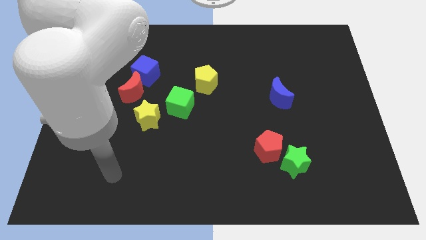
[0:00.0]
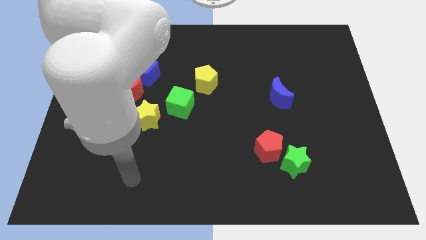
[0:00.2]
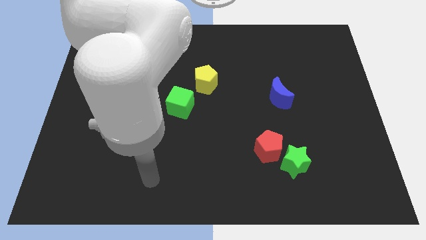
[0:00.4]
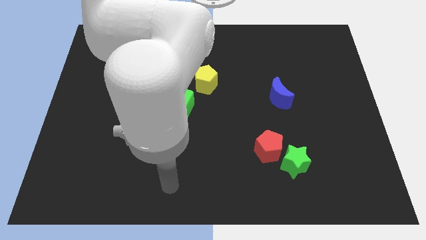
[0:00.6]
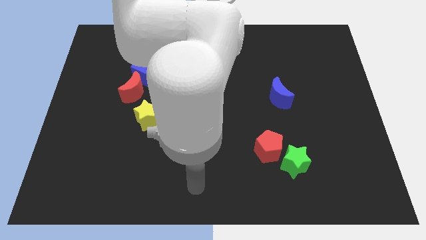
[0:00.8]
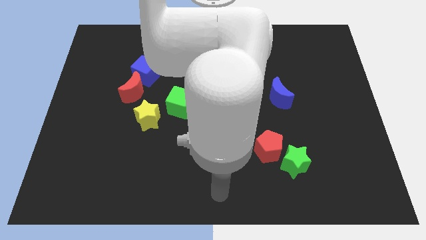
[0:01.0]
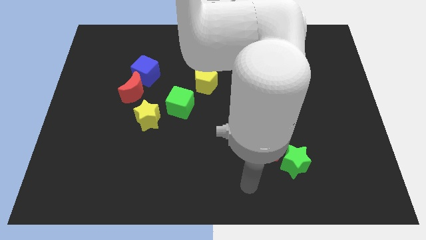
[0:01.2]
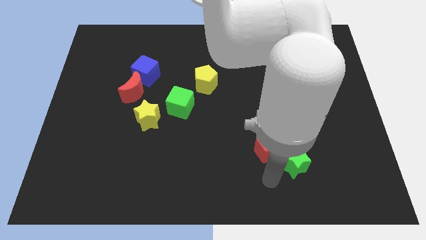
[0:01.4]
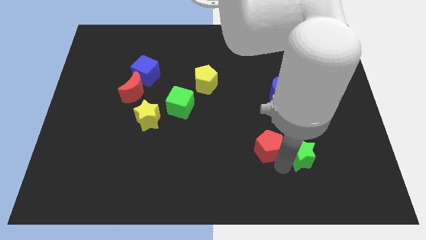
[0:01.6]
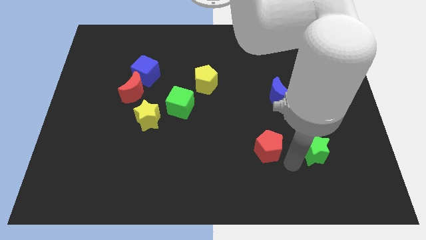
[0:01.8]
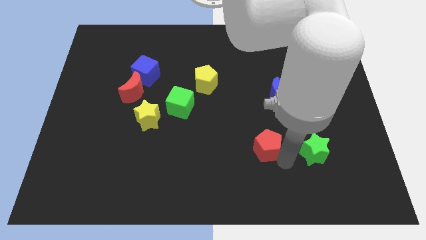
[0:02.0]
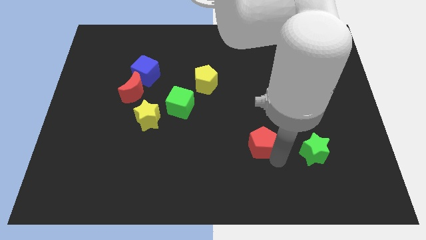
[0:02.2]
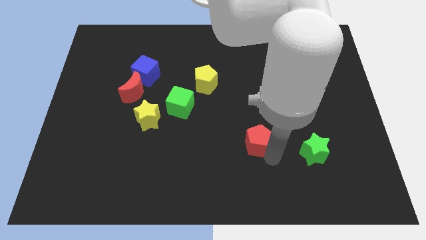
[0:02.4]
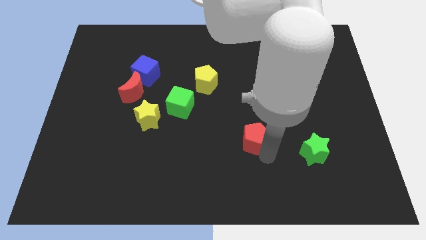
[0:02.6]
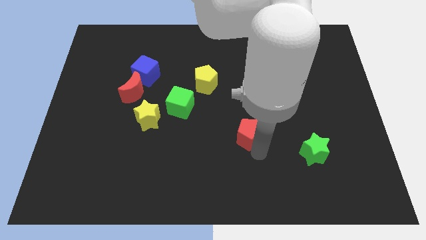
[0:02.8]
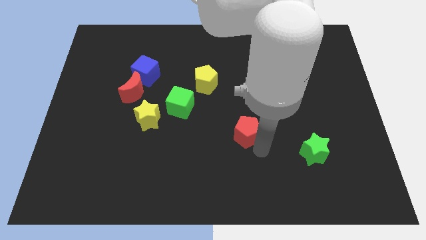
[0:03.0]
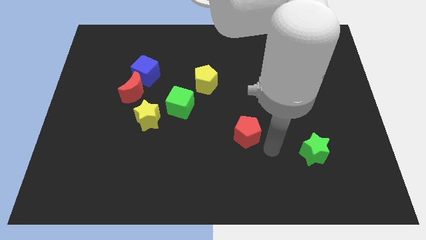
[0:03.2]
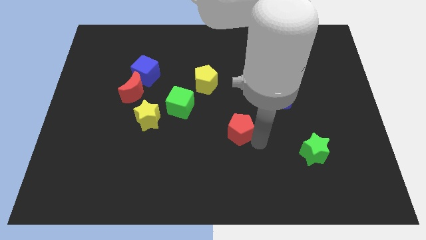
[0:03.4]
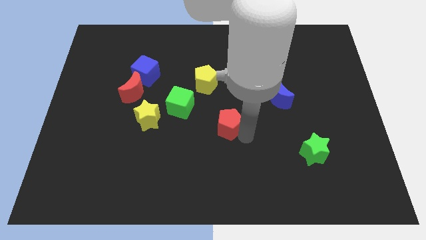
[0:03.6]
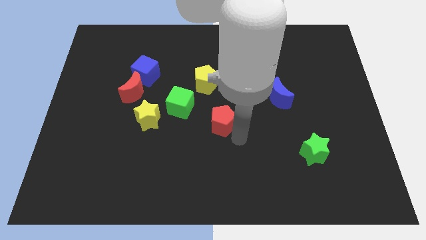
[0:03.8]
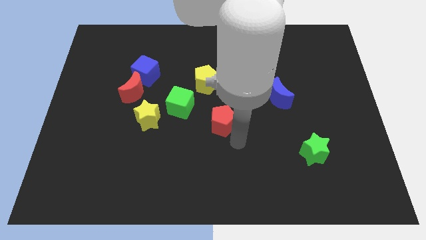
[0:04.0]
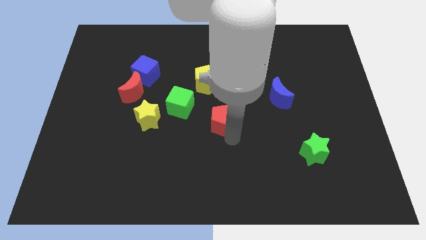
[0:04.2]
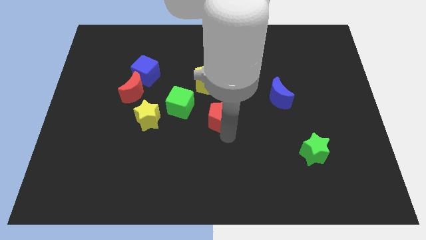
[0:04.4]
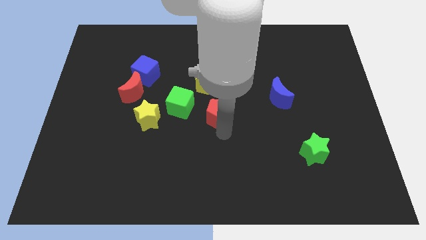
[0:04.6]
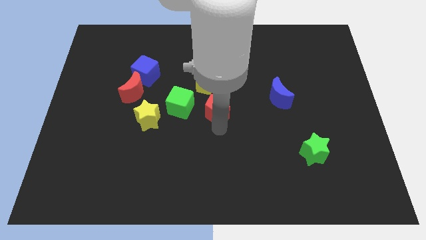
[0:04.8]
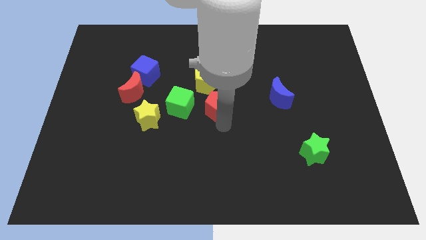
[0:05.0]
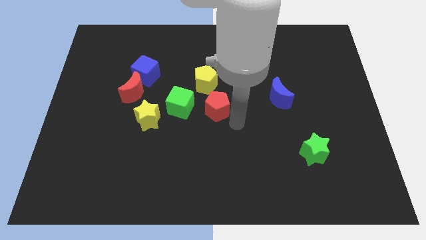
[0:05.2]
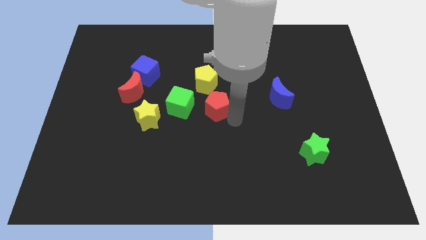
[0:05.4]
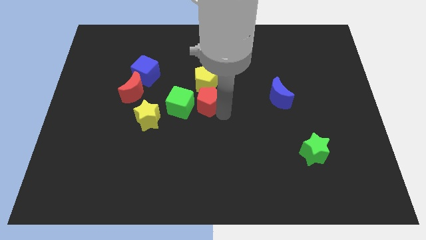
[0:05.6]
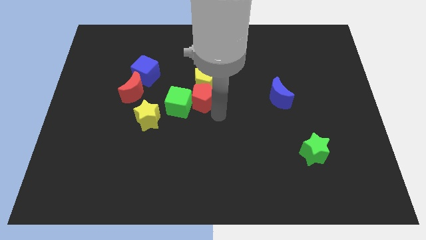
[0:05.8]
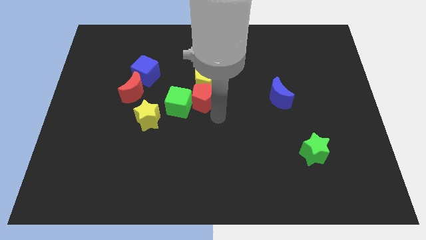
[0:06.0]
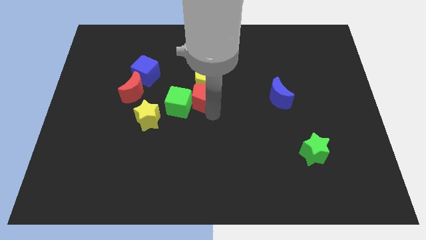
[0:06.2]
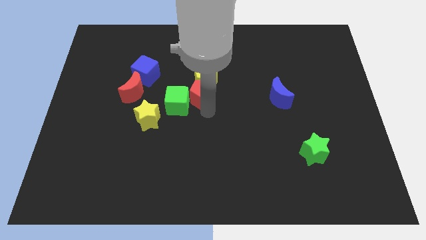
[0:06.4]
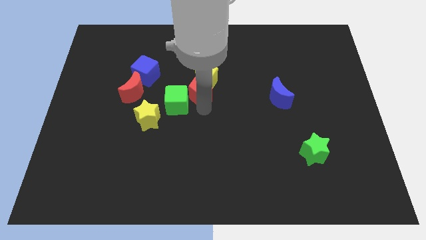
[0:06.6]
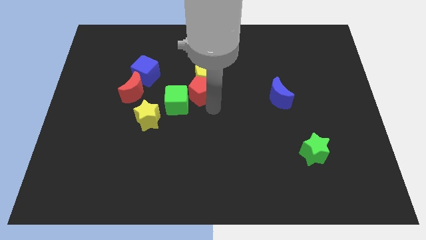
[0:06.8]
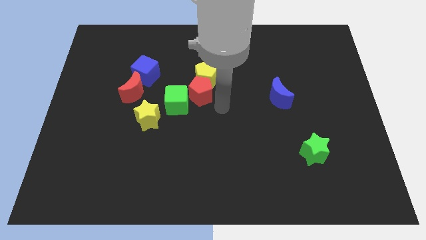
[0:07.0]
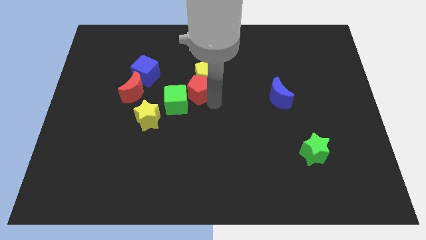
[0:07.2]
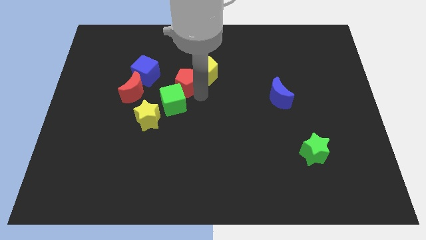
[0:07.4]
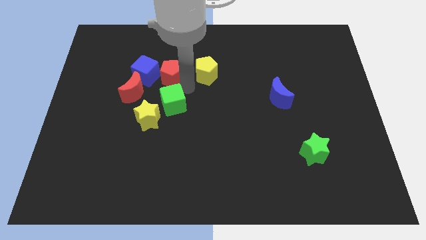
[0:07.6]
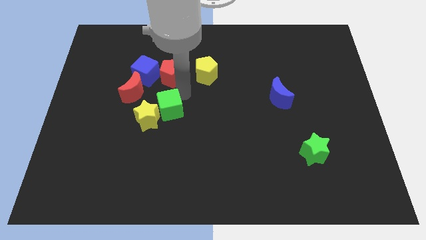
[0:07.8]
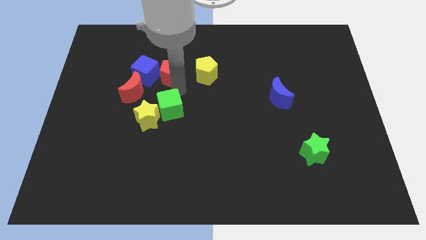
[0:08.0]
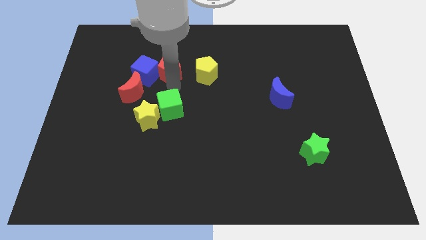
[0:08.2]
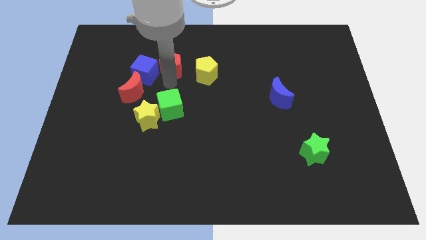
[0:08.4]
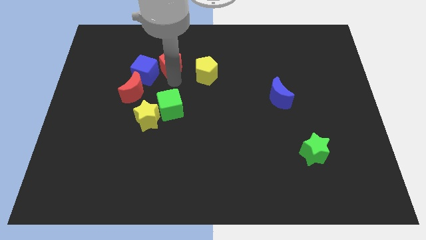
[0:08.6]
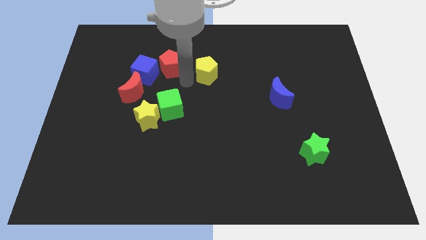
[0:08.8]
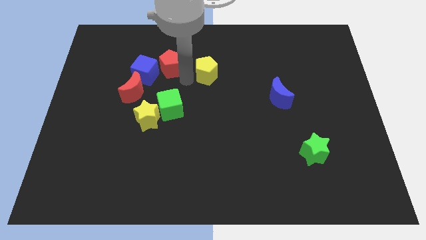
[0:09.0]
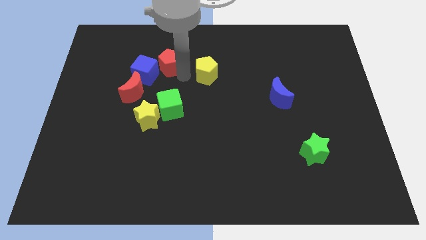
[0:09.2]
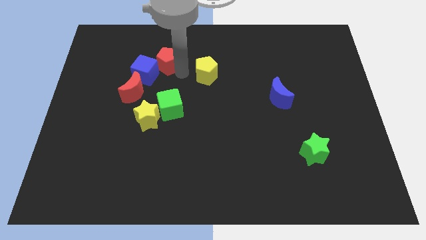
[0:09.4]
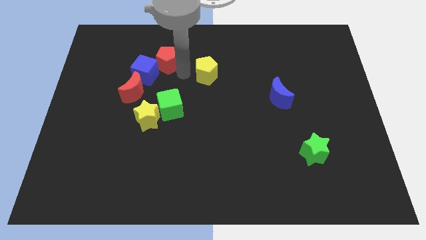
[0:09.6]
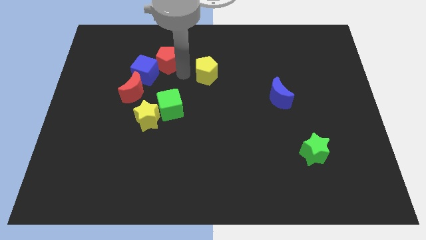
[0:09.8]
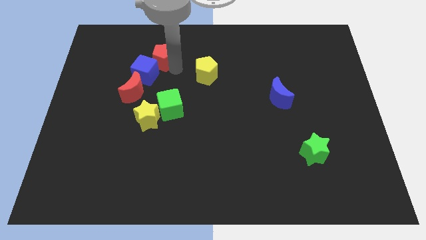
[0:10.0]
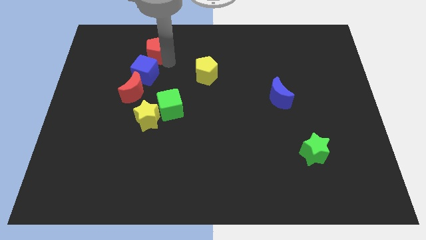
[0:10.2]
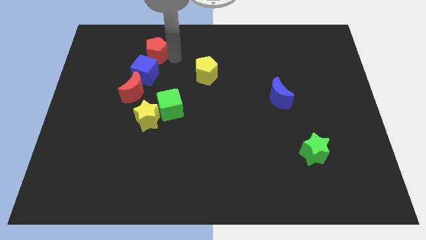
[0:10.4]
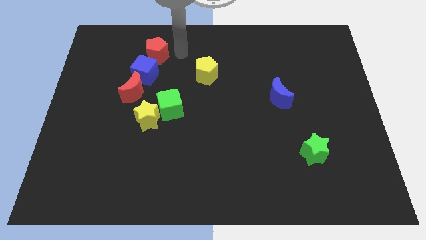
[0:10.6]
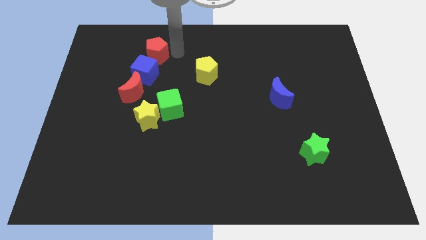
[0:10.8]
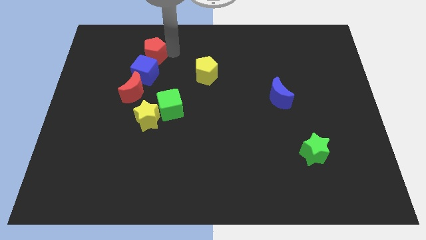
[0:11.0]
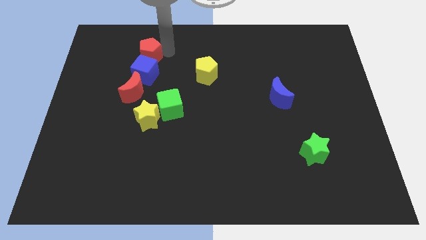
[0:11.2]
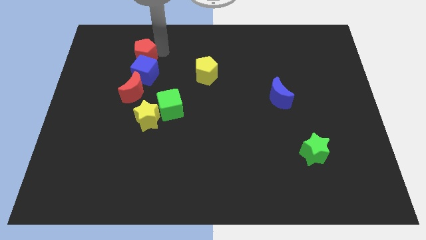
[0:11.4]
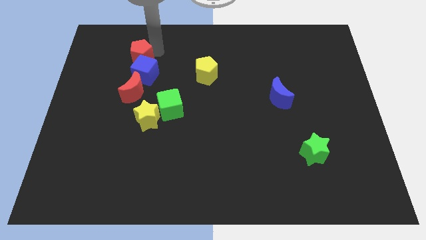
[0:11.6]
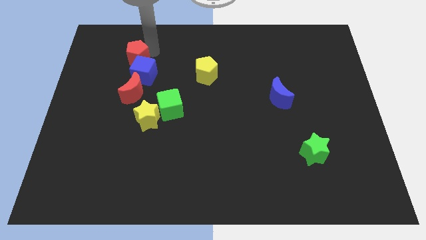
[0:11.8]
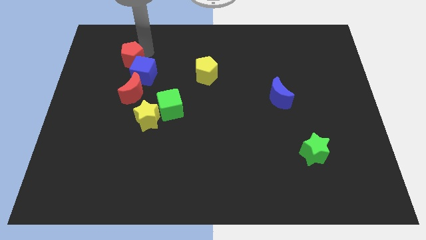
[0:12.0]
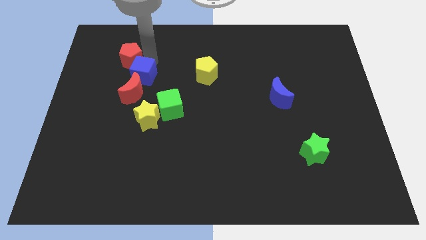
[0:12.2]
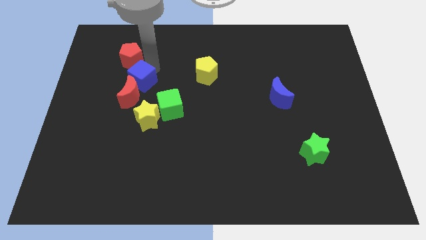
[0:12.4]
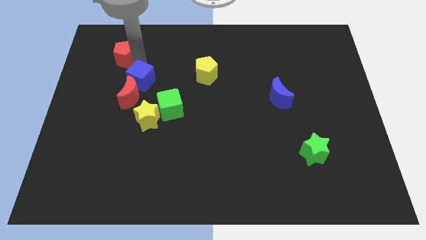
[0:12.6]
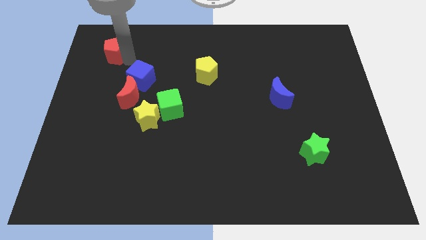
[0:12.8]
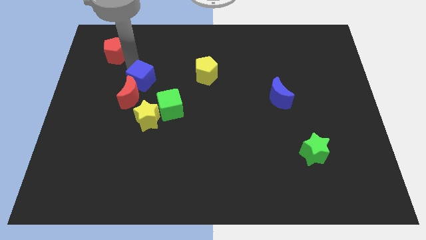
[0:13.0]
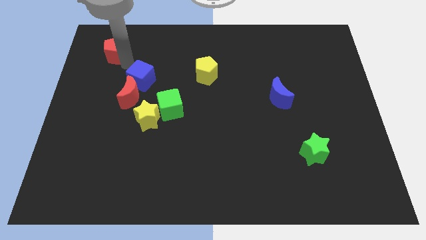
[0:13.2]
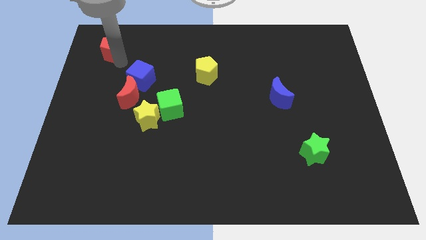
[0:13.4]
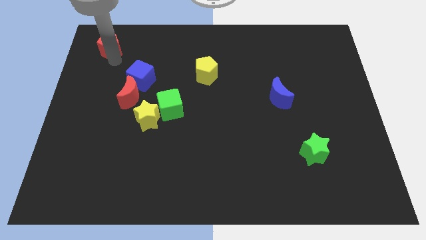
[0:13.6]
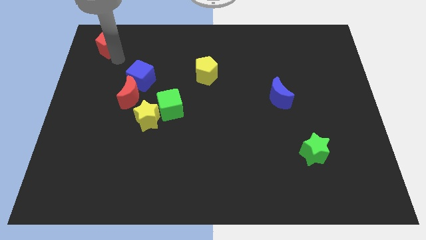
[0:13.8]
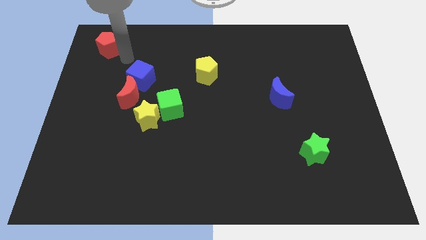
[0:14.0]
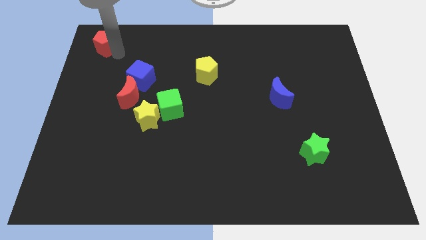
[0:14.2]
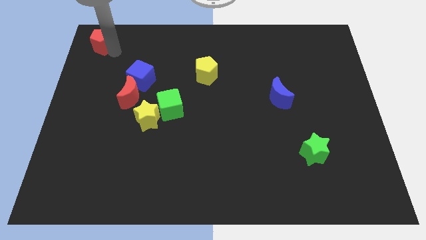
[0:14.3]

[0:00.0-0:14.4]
put the red pentagon to the top left corner
